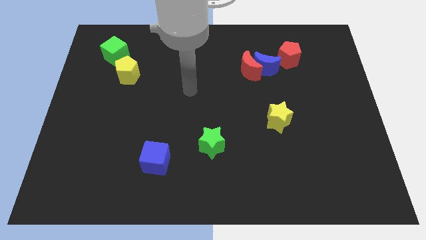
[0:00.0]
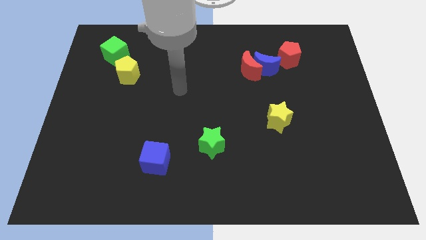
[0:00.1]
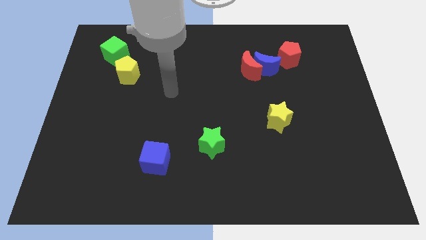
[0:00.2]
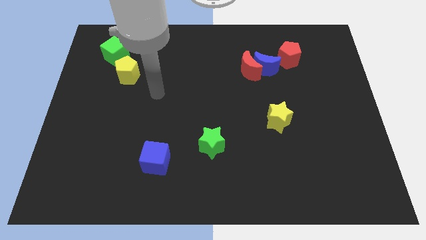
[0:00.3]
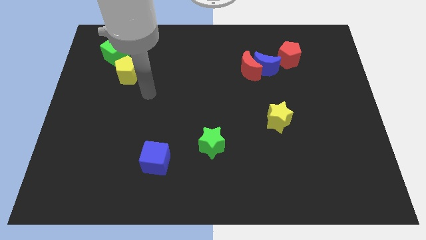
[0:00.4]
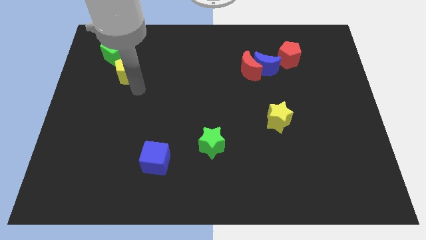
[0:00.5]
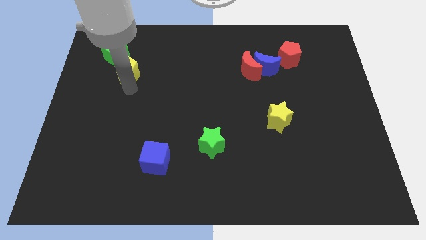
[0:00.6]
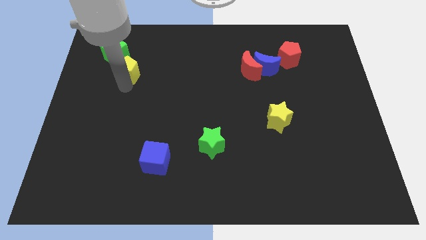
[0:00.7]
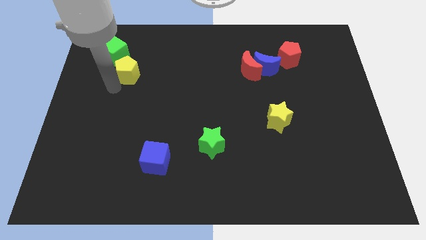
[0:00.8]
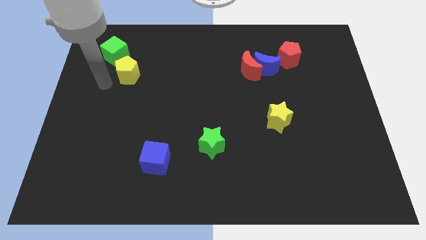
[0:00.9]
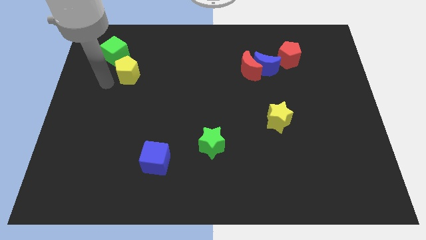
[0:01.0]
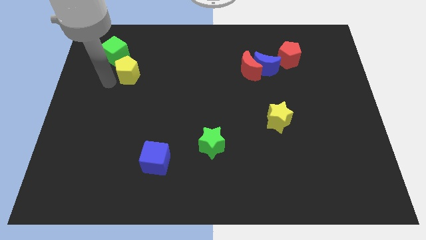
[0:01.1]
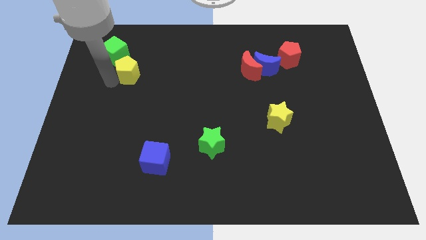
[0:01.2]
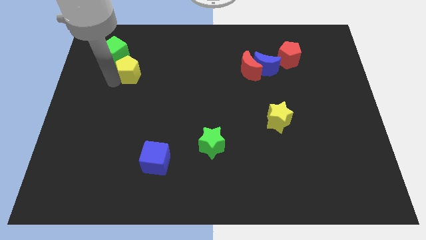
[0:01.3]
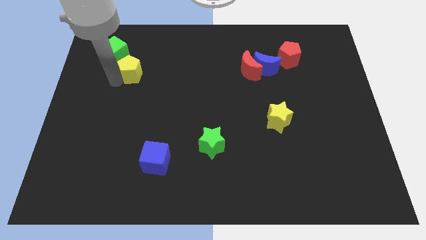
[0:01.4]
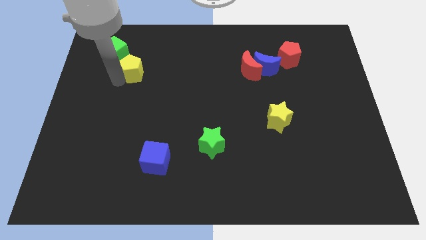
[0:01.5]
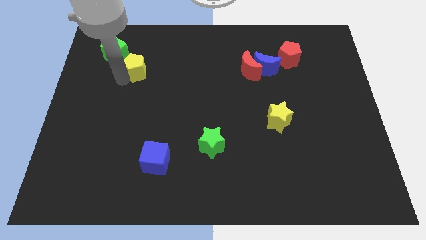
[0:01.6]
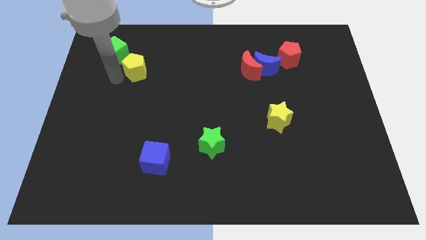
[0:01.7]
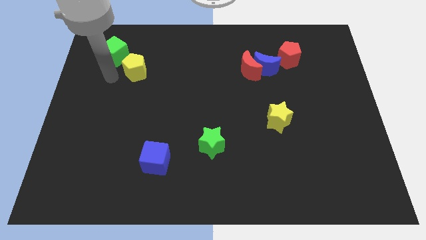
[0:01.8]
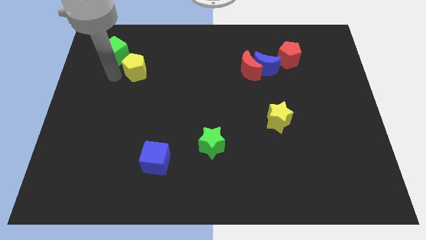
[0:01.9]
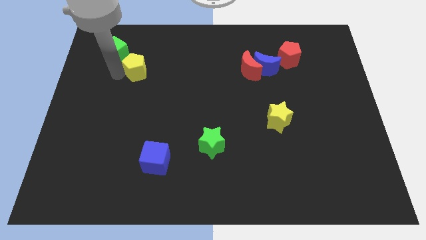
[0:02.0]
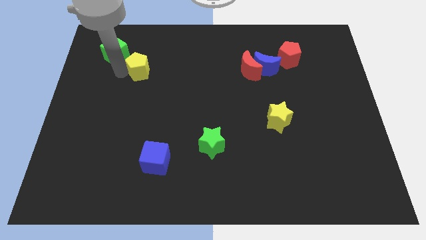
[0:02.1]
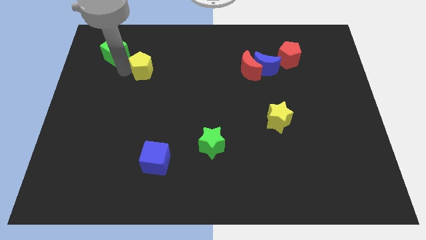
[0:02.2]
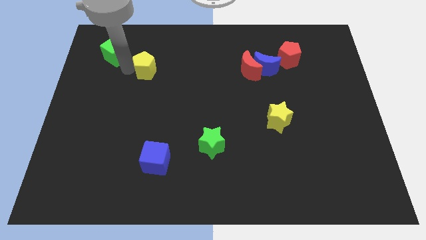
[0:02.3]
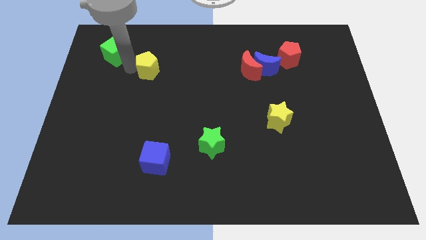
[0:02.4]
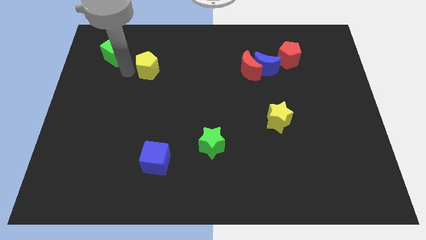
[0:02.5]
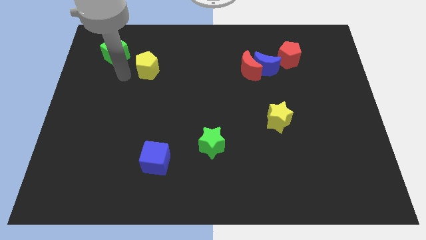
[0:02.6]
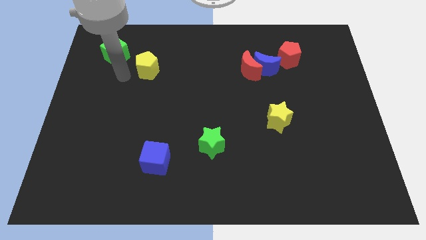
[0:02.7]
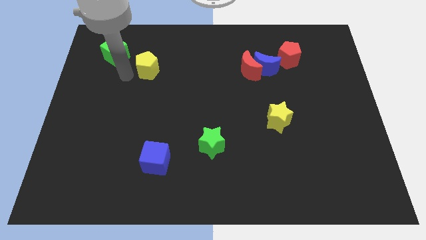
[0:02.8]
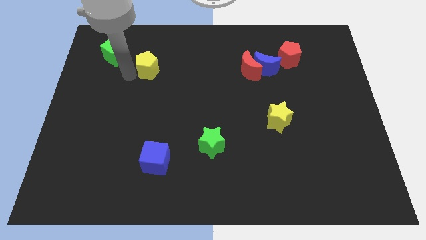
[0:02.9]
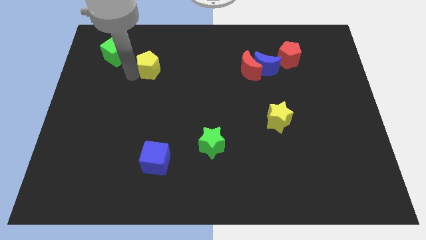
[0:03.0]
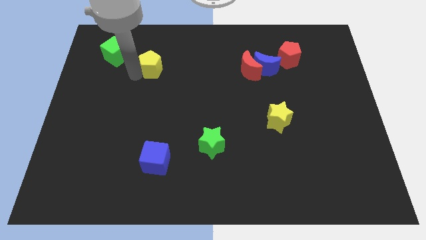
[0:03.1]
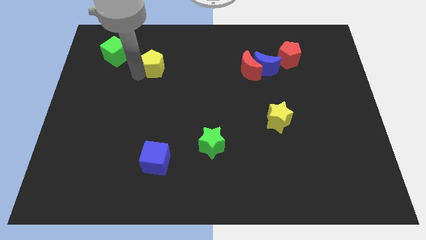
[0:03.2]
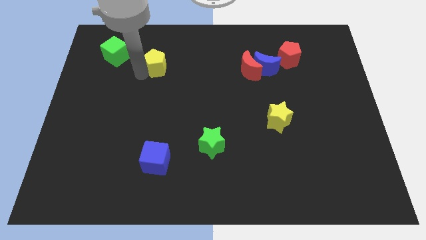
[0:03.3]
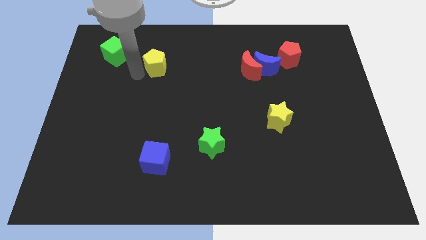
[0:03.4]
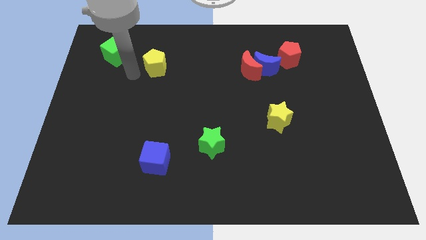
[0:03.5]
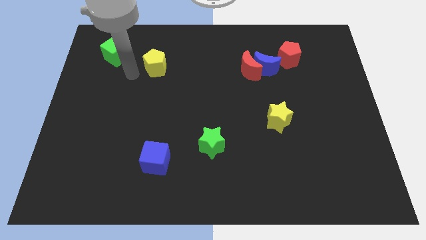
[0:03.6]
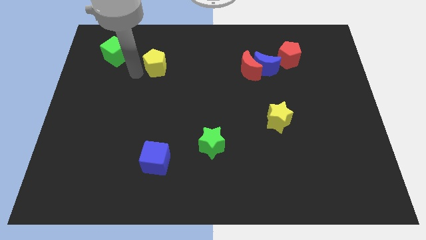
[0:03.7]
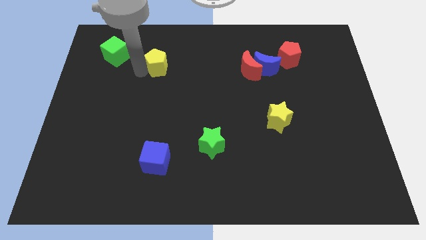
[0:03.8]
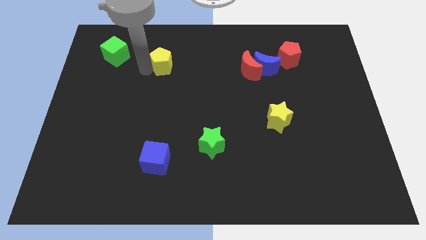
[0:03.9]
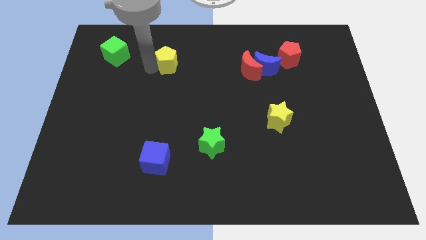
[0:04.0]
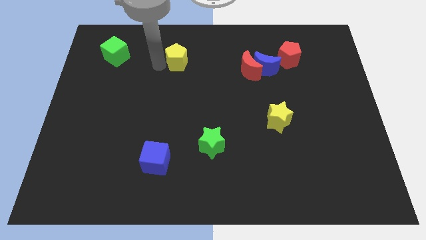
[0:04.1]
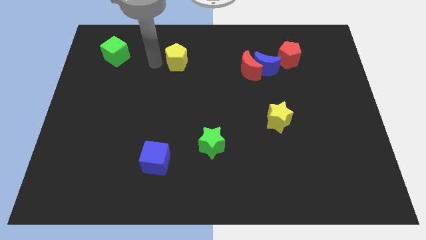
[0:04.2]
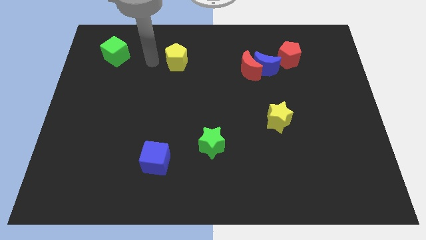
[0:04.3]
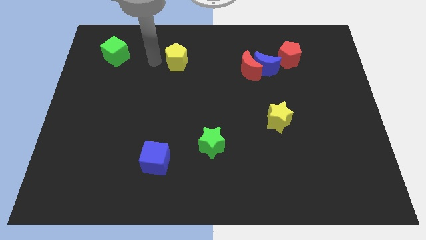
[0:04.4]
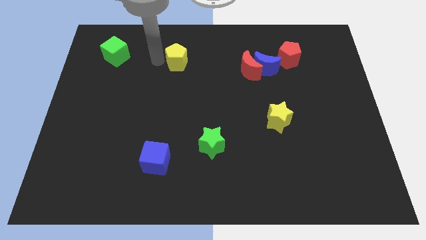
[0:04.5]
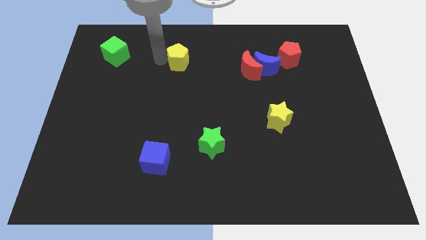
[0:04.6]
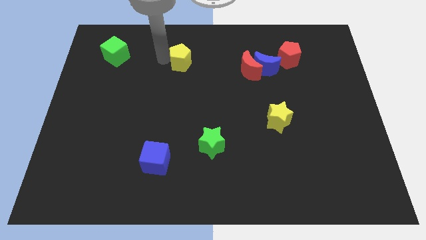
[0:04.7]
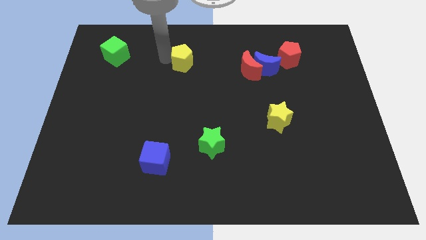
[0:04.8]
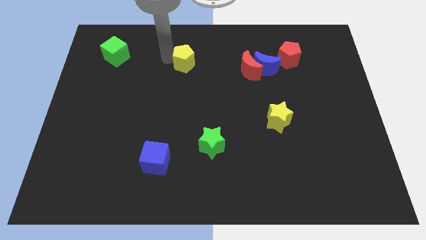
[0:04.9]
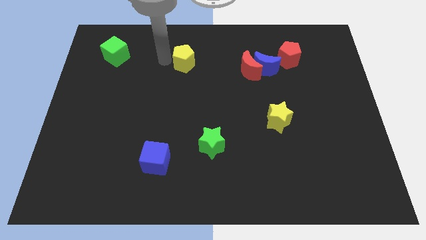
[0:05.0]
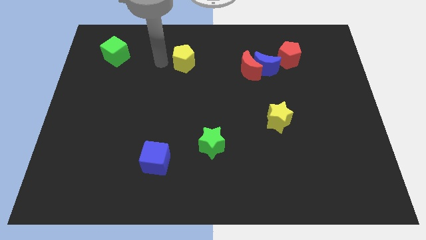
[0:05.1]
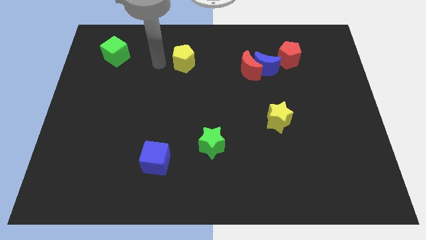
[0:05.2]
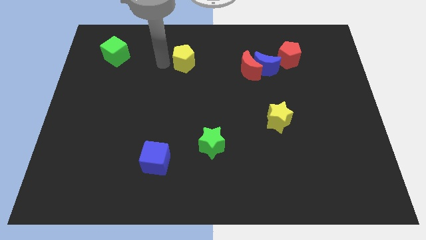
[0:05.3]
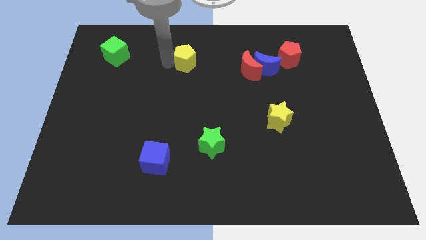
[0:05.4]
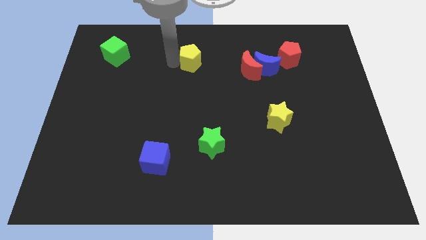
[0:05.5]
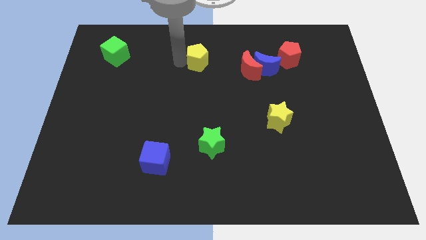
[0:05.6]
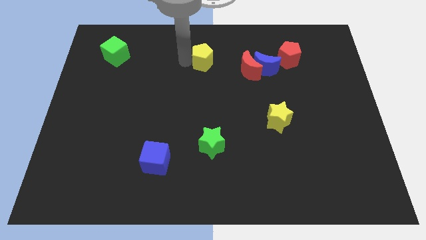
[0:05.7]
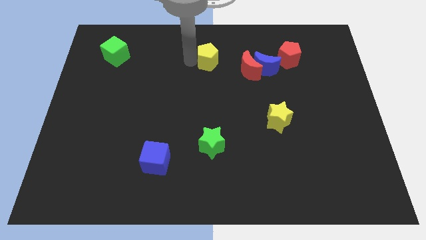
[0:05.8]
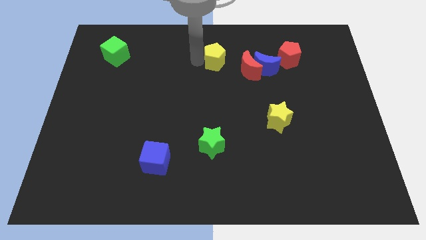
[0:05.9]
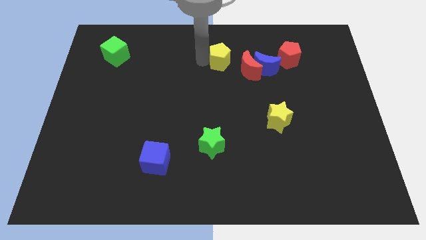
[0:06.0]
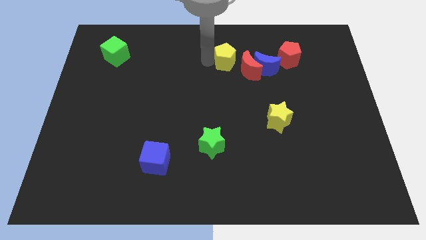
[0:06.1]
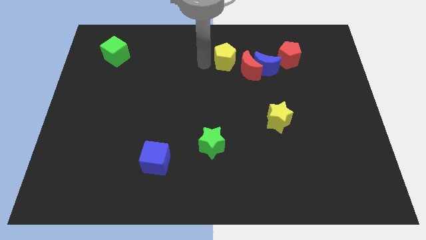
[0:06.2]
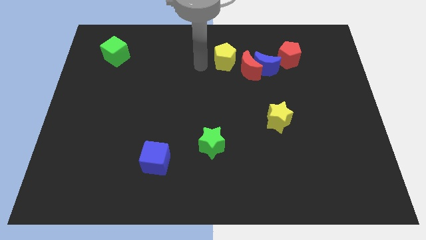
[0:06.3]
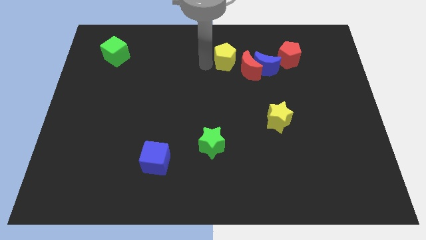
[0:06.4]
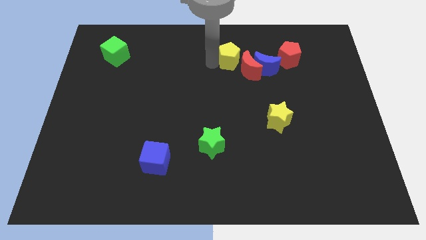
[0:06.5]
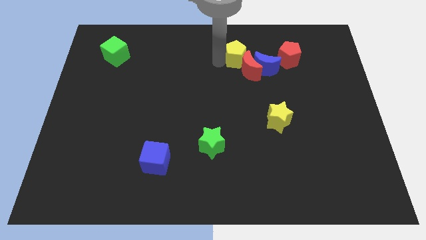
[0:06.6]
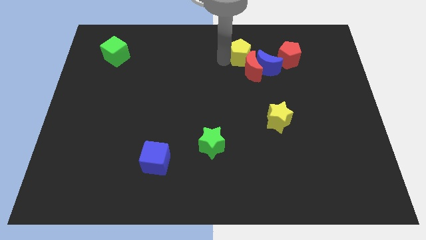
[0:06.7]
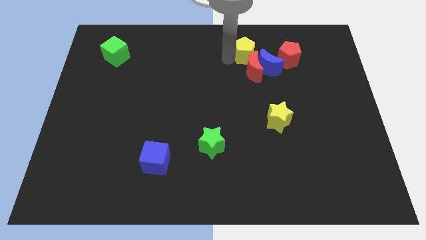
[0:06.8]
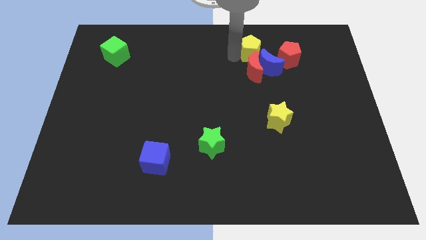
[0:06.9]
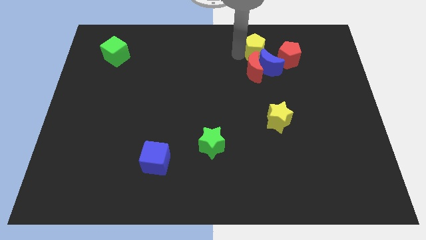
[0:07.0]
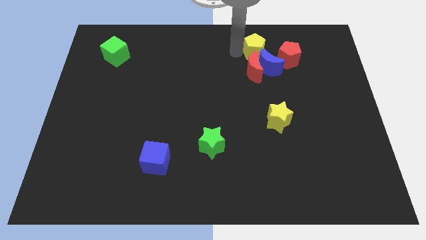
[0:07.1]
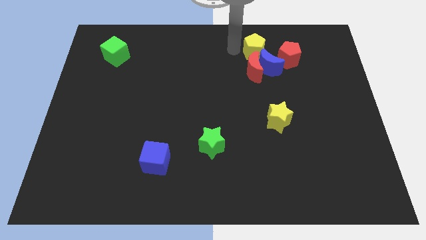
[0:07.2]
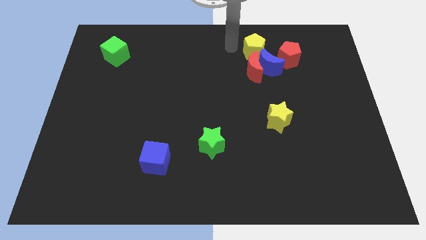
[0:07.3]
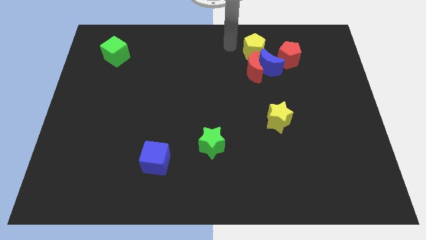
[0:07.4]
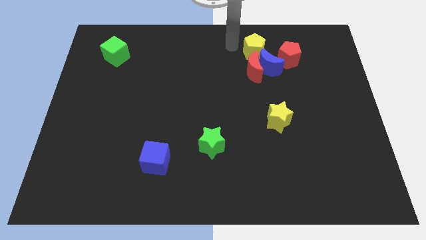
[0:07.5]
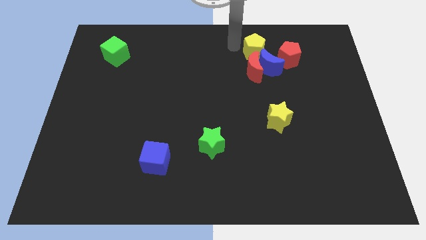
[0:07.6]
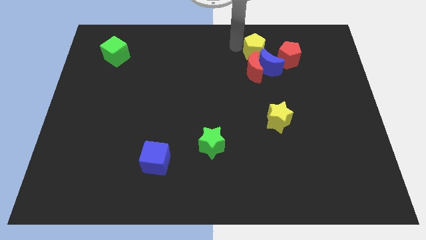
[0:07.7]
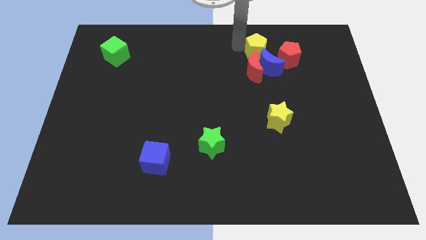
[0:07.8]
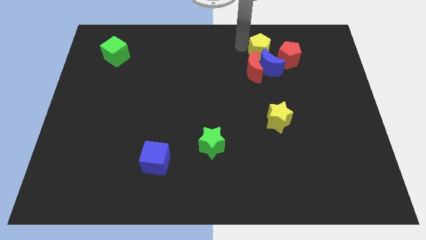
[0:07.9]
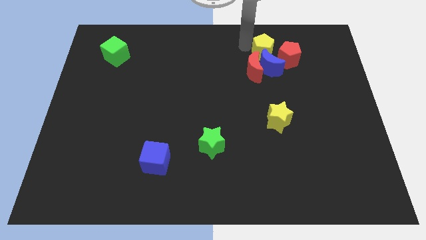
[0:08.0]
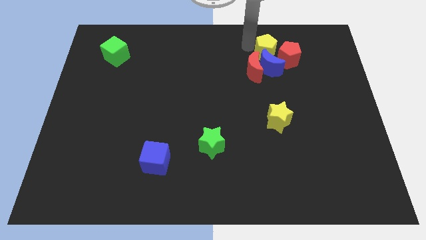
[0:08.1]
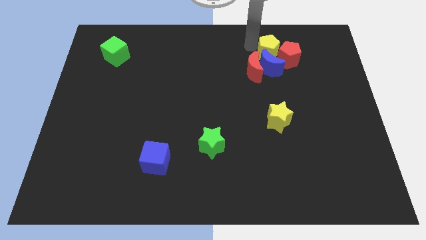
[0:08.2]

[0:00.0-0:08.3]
slide the yellow pentagon close to the red pentagon
